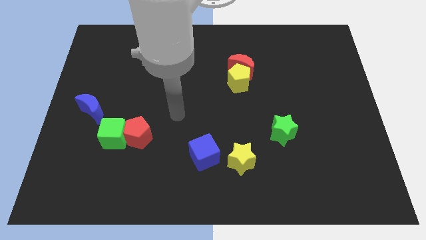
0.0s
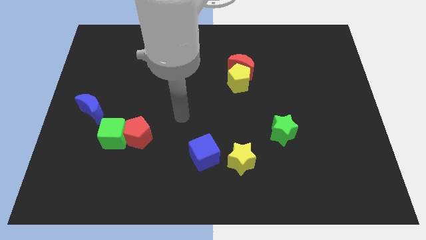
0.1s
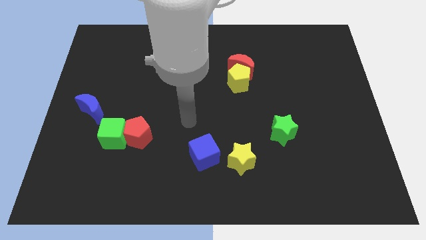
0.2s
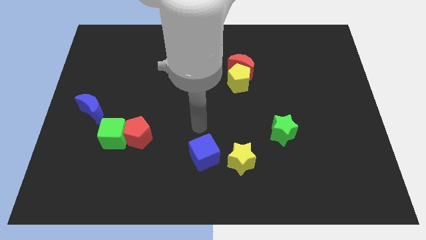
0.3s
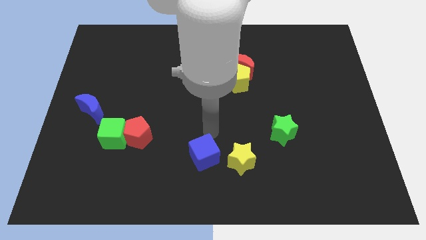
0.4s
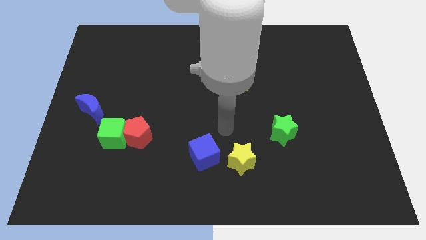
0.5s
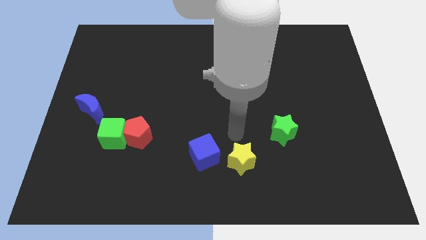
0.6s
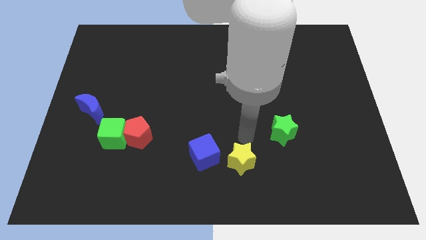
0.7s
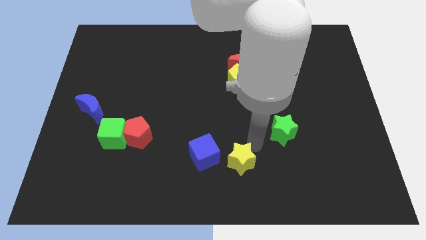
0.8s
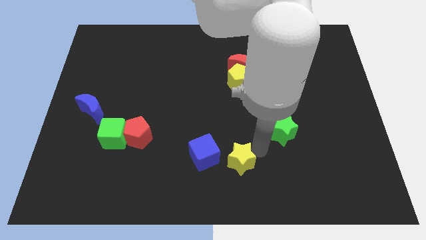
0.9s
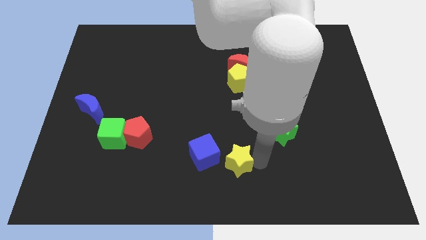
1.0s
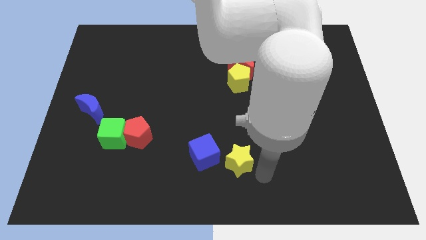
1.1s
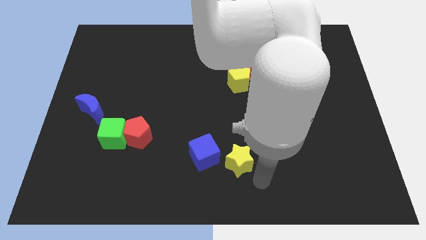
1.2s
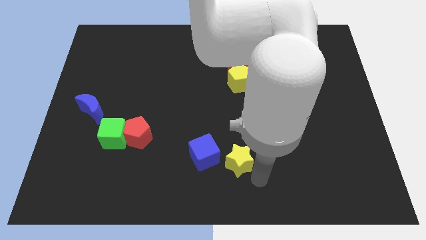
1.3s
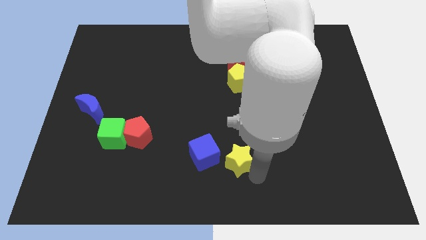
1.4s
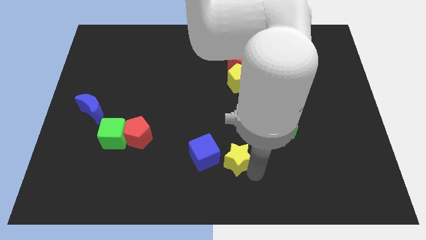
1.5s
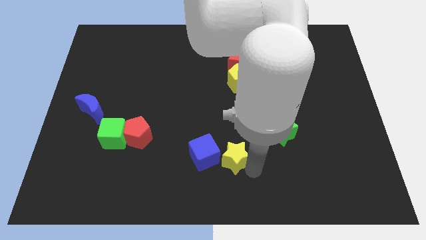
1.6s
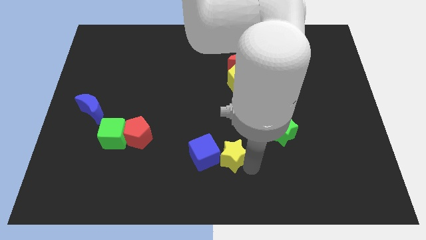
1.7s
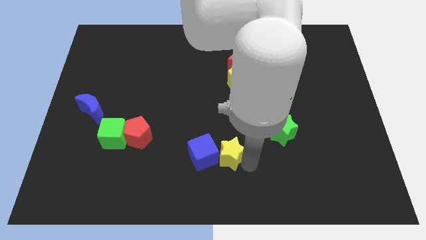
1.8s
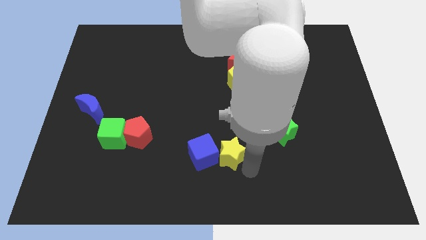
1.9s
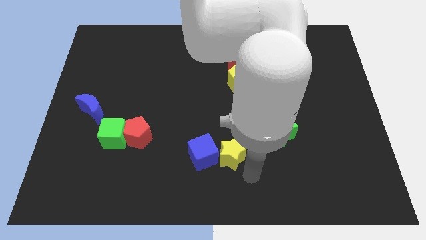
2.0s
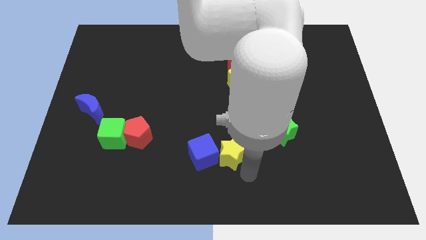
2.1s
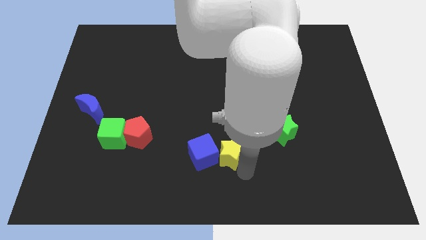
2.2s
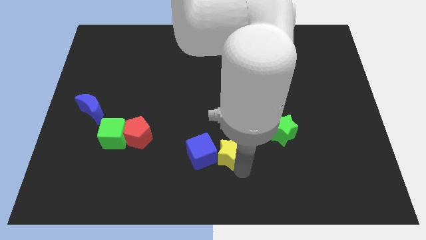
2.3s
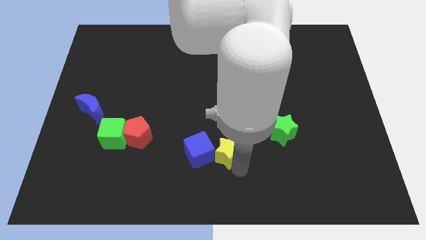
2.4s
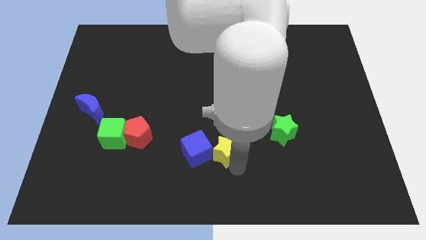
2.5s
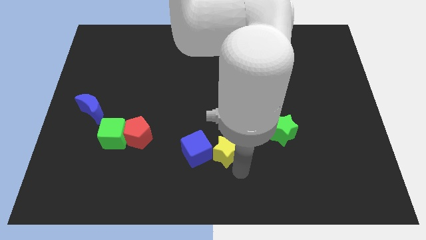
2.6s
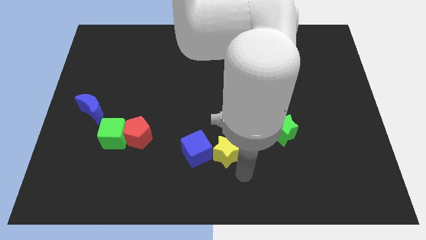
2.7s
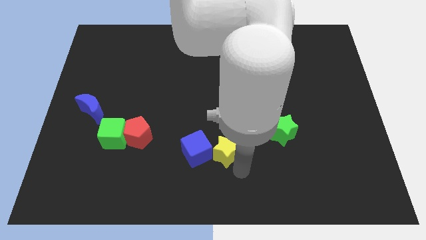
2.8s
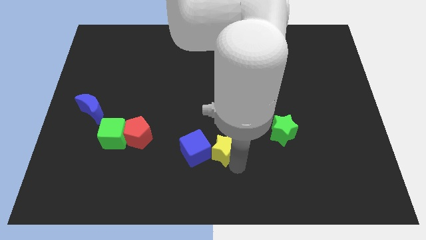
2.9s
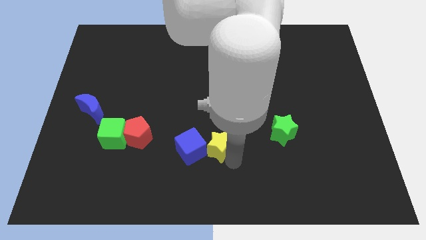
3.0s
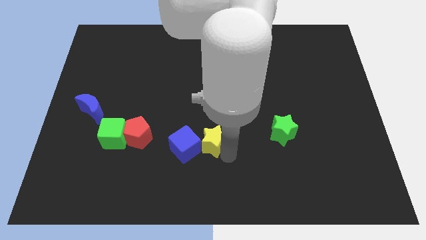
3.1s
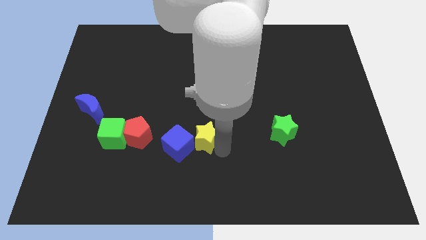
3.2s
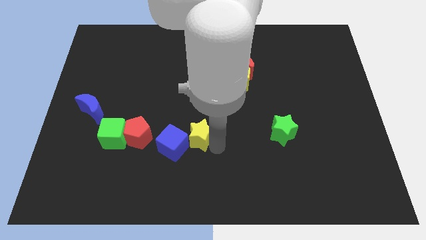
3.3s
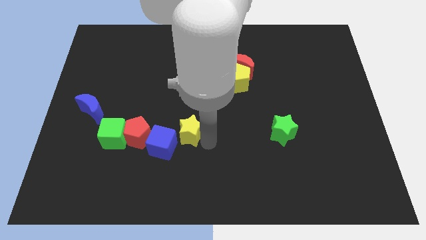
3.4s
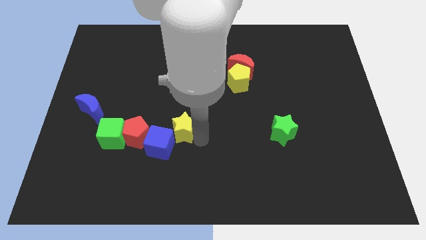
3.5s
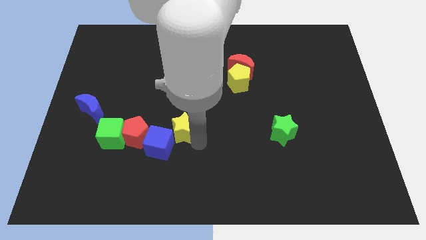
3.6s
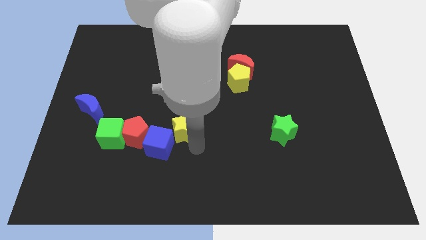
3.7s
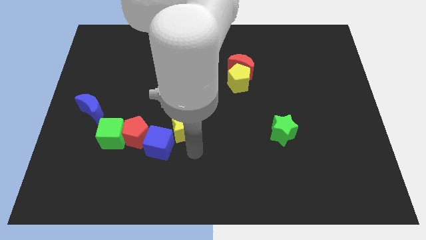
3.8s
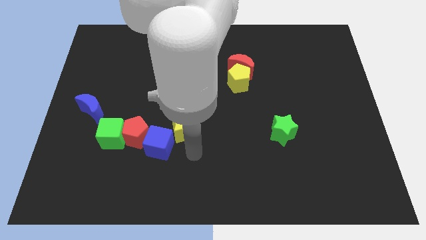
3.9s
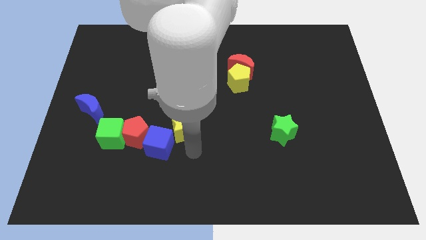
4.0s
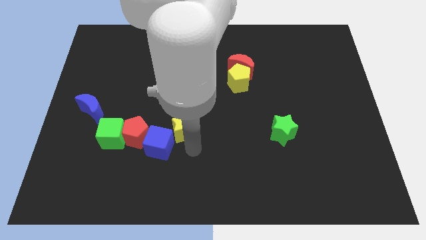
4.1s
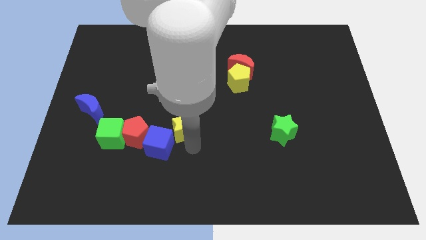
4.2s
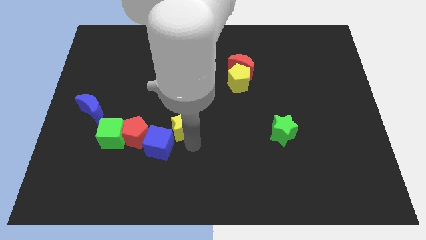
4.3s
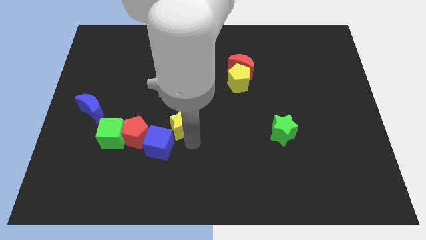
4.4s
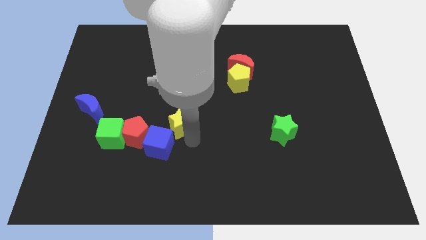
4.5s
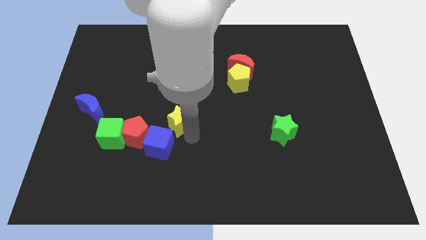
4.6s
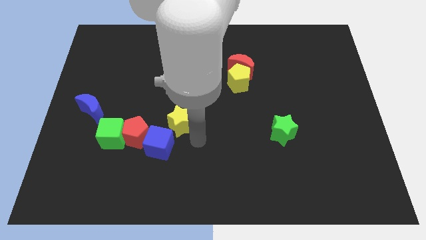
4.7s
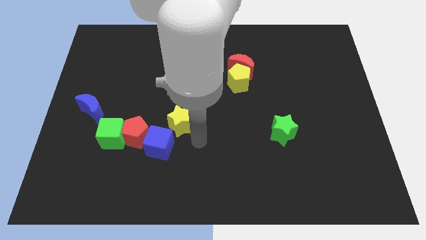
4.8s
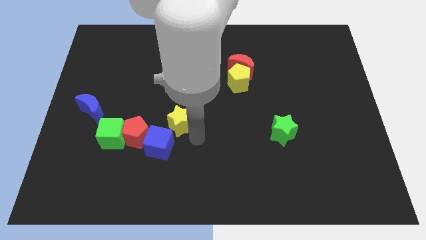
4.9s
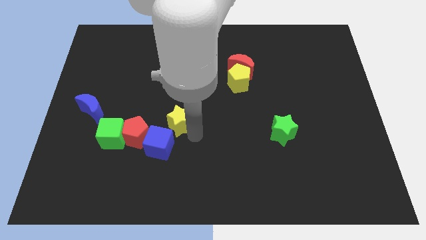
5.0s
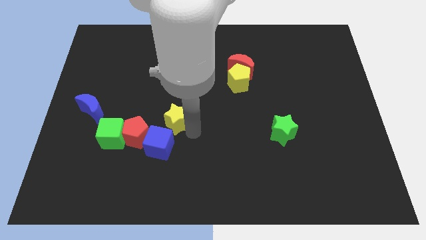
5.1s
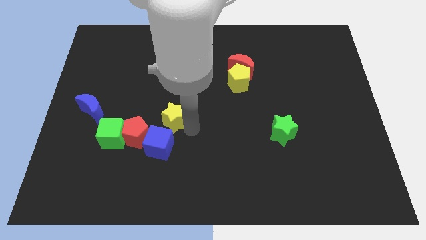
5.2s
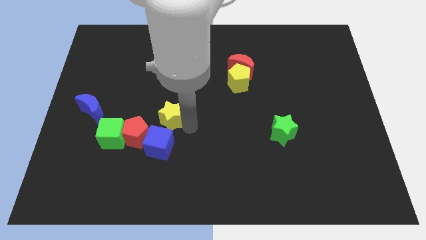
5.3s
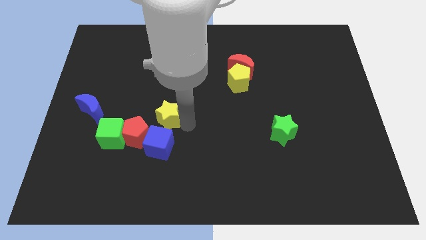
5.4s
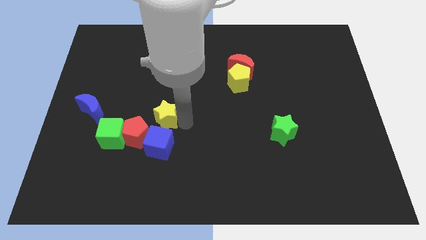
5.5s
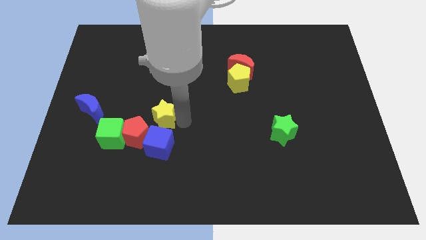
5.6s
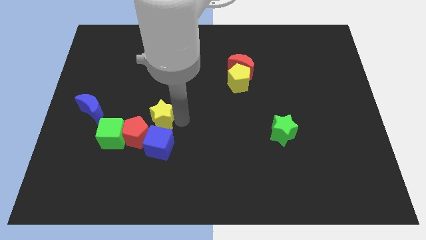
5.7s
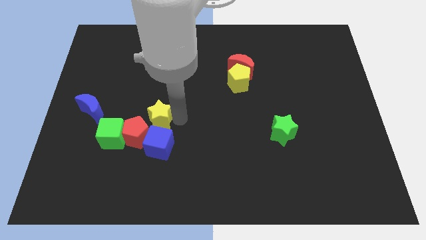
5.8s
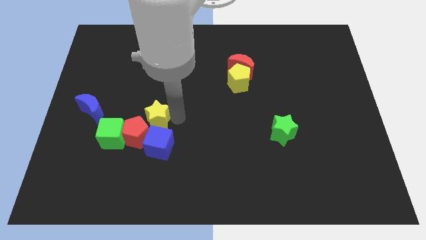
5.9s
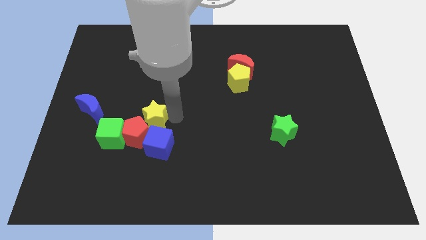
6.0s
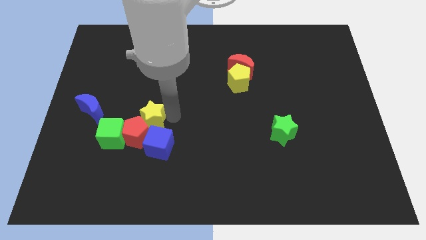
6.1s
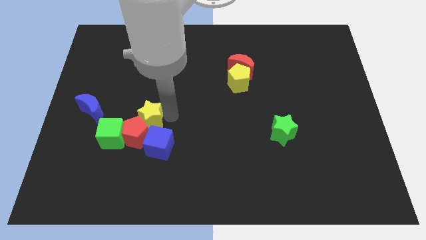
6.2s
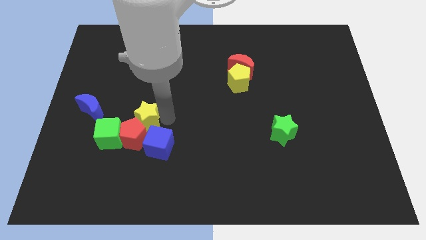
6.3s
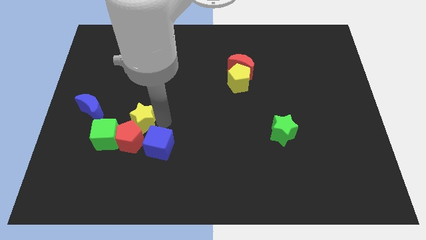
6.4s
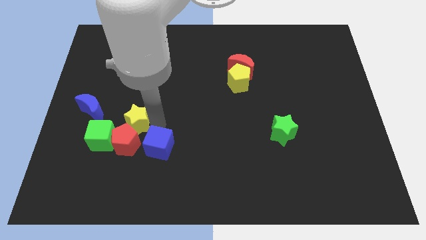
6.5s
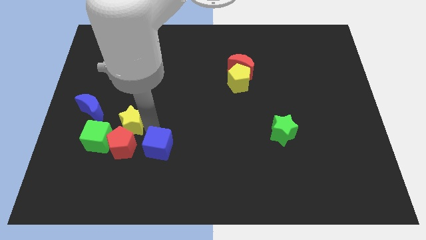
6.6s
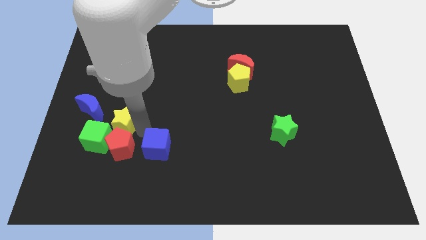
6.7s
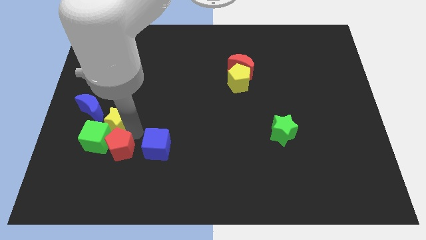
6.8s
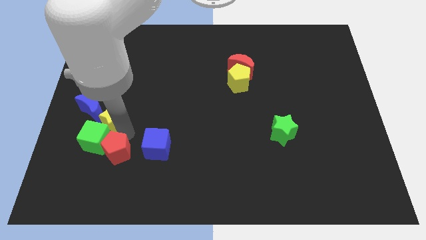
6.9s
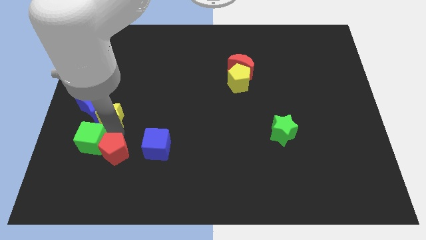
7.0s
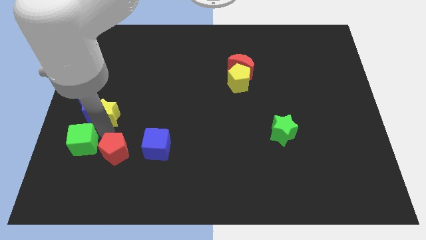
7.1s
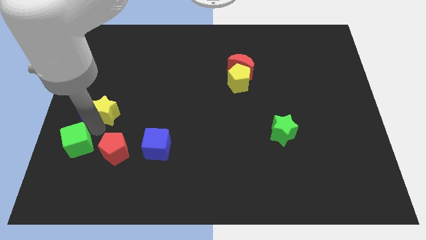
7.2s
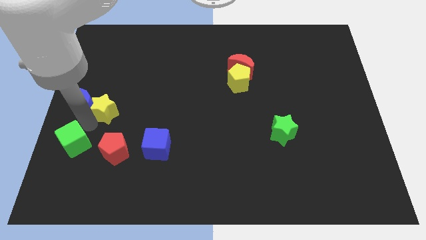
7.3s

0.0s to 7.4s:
put the yellow star to the left side

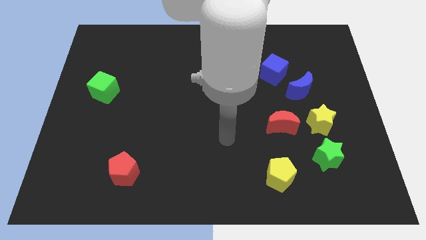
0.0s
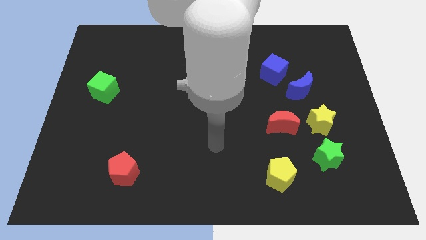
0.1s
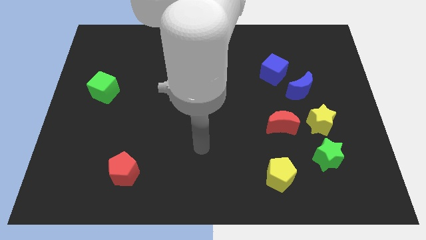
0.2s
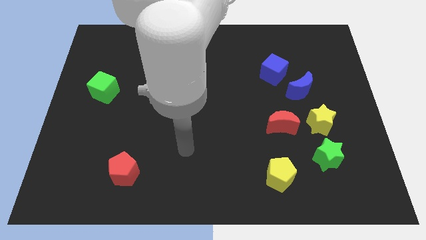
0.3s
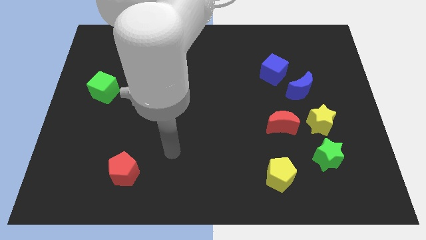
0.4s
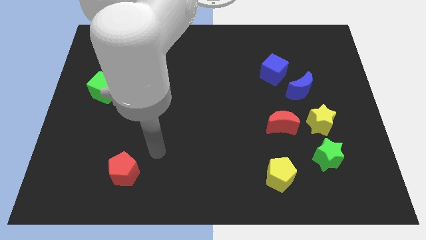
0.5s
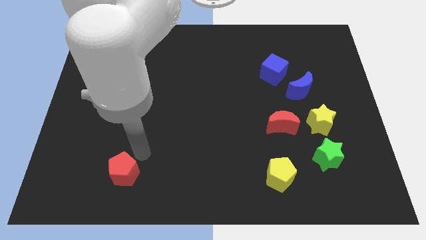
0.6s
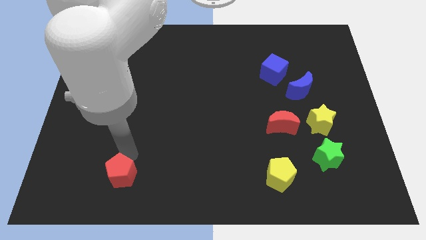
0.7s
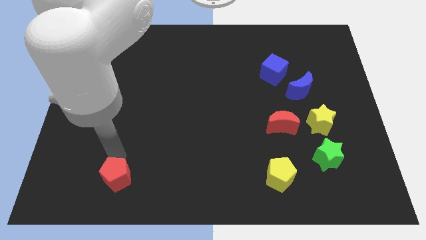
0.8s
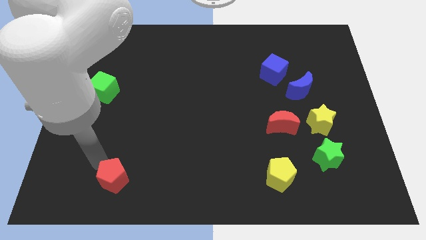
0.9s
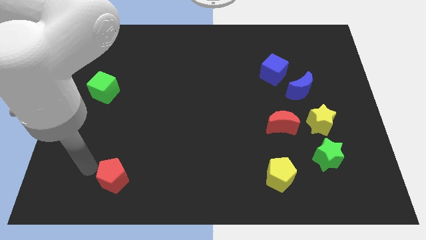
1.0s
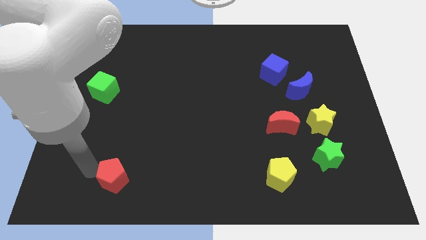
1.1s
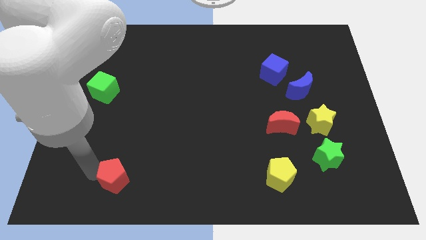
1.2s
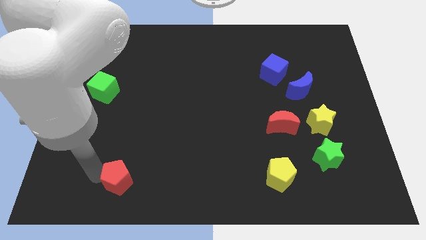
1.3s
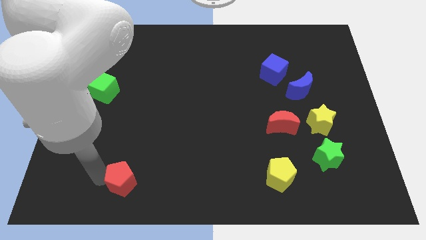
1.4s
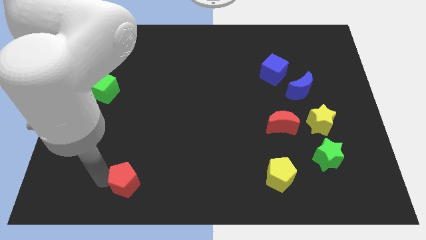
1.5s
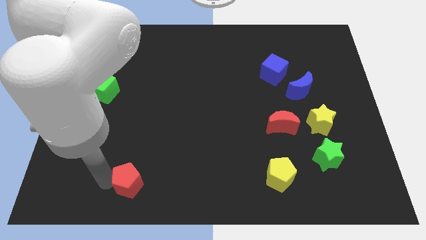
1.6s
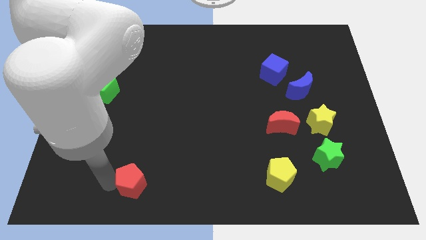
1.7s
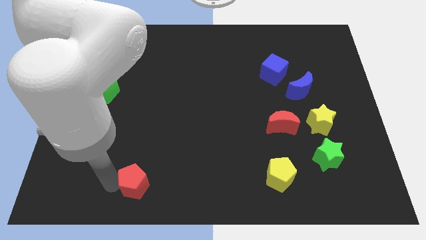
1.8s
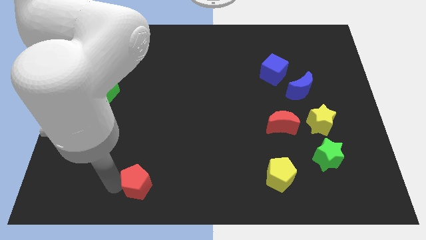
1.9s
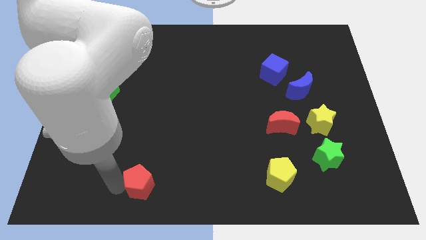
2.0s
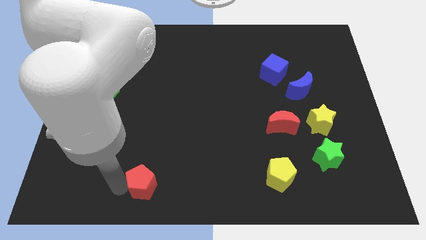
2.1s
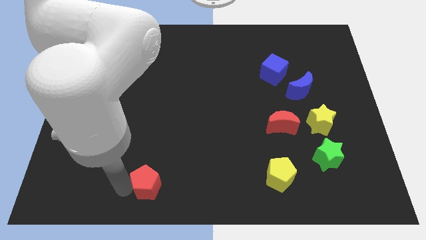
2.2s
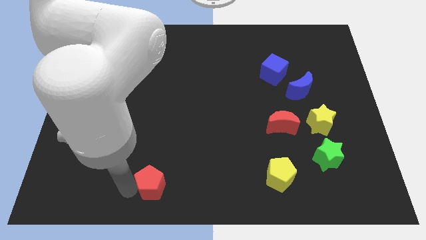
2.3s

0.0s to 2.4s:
slide the red pentagon to the bottom
